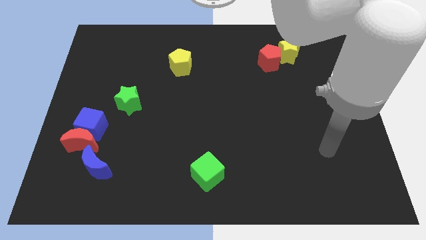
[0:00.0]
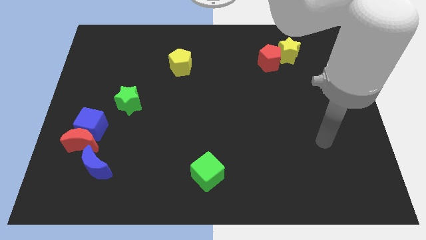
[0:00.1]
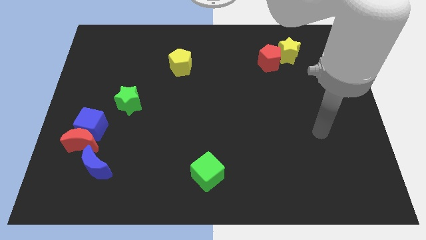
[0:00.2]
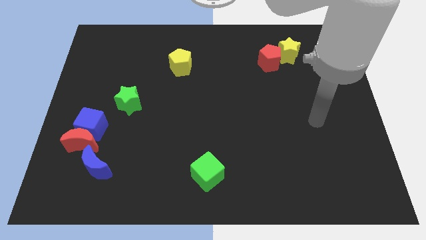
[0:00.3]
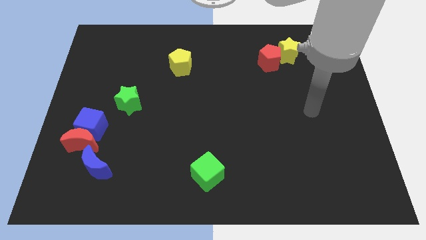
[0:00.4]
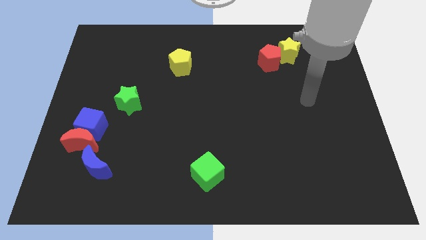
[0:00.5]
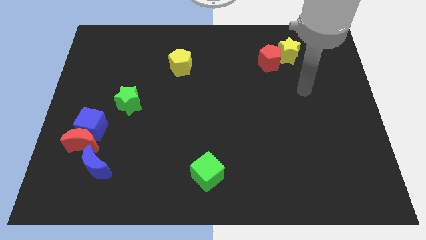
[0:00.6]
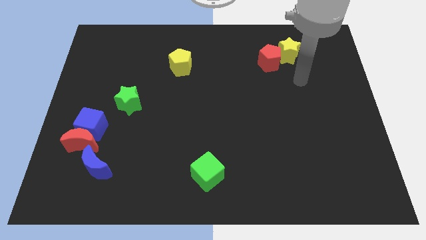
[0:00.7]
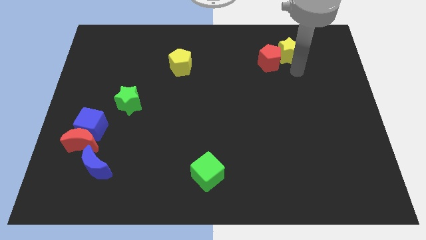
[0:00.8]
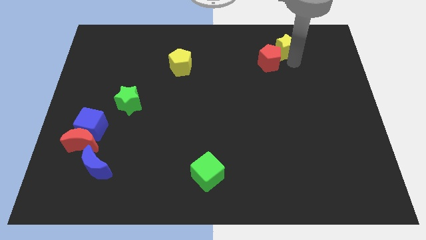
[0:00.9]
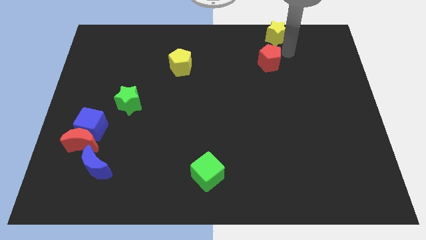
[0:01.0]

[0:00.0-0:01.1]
separate the red pentagon from the yellow star

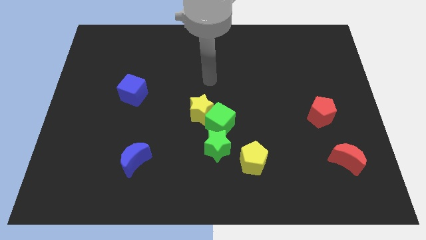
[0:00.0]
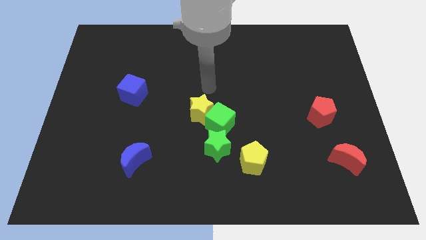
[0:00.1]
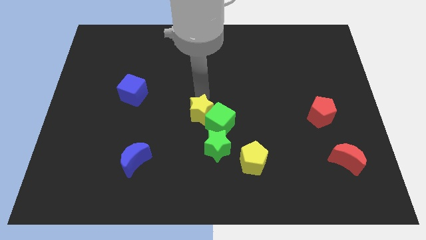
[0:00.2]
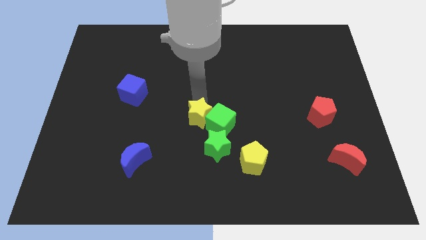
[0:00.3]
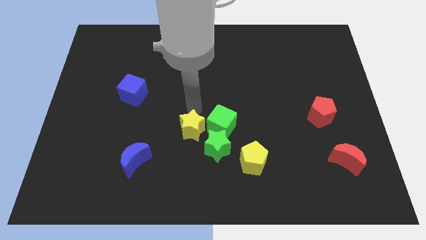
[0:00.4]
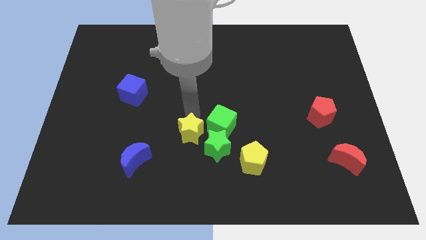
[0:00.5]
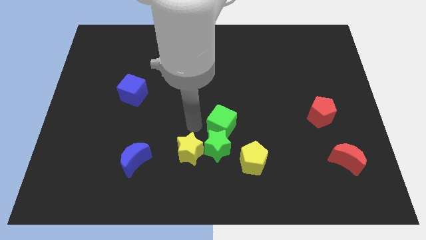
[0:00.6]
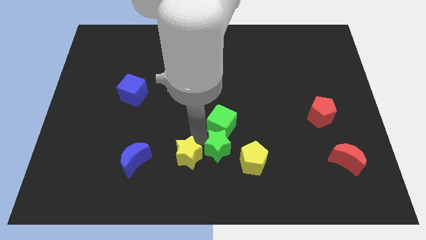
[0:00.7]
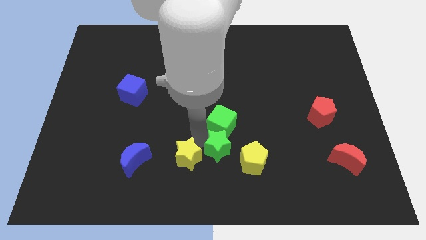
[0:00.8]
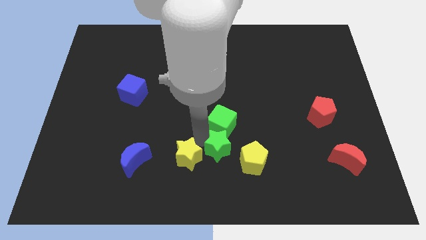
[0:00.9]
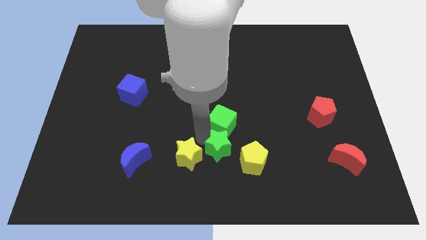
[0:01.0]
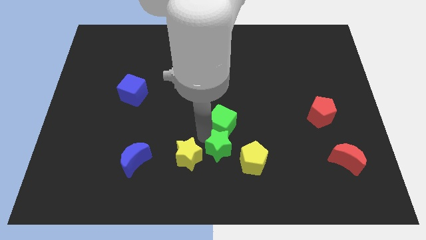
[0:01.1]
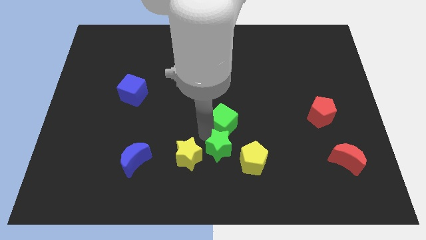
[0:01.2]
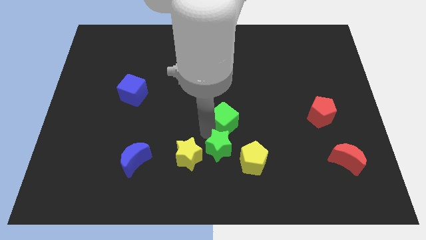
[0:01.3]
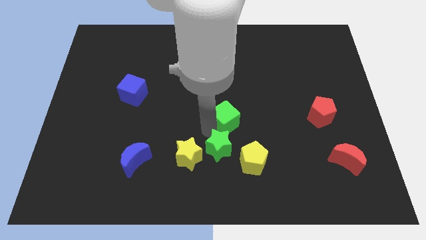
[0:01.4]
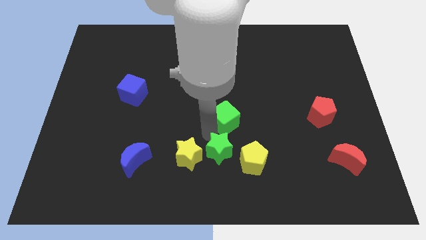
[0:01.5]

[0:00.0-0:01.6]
pull the green cube apart from the yellow star and green star

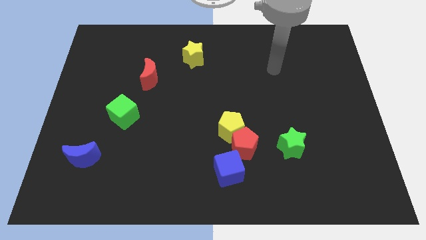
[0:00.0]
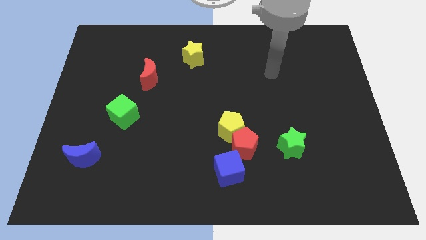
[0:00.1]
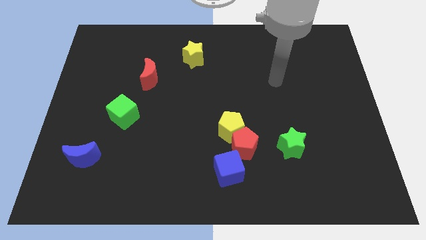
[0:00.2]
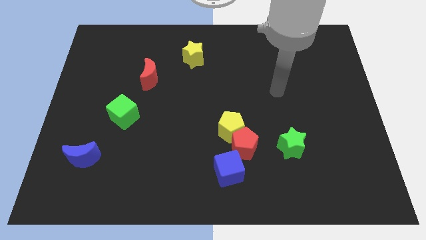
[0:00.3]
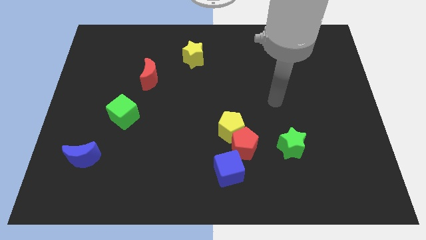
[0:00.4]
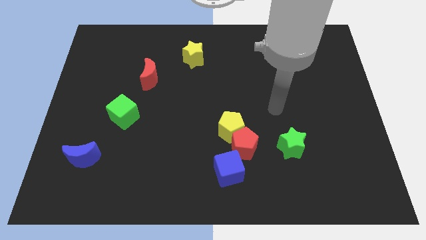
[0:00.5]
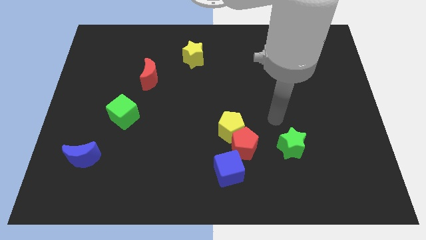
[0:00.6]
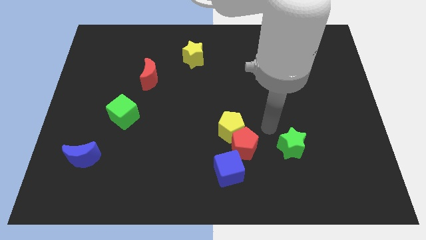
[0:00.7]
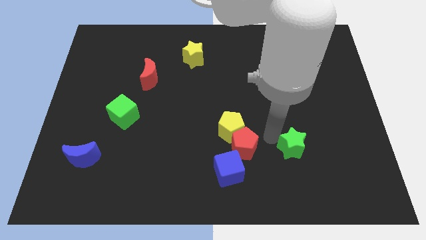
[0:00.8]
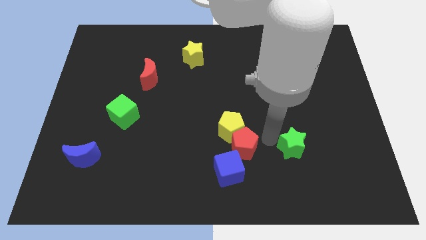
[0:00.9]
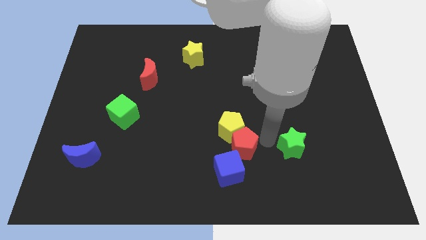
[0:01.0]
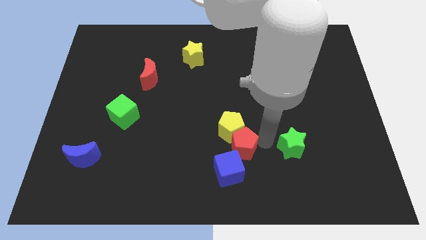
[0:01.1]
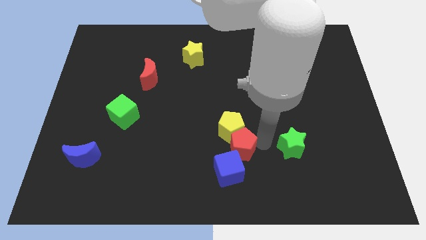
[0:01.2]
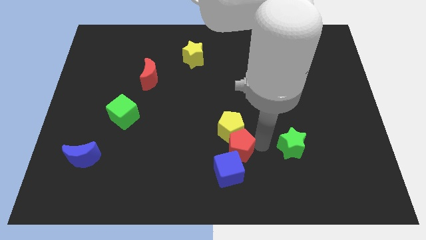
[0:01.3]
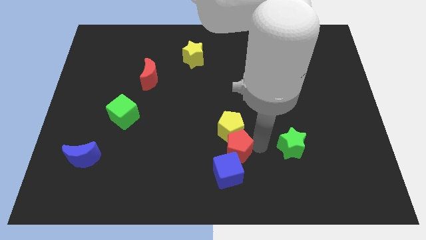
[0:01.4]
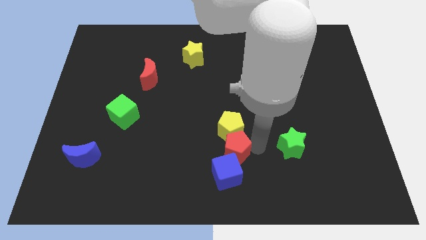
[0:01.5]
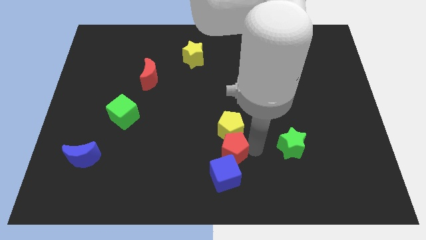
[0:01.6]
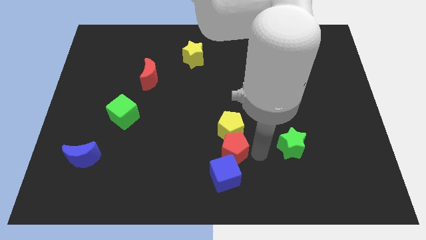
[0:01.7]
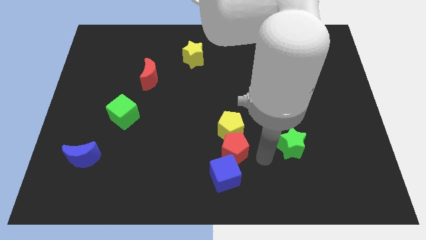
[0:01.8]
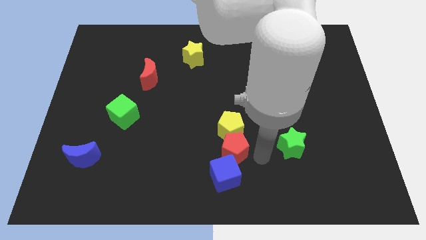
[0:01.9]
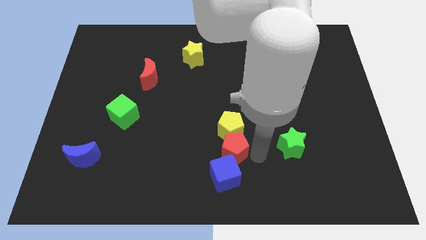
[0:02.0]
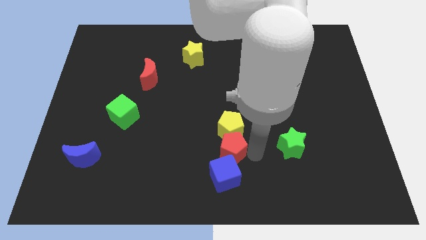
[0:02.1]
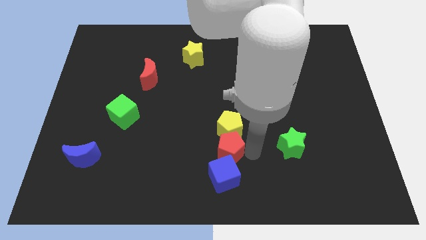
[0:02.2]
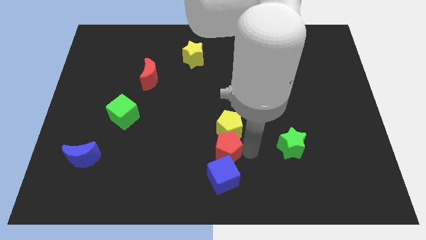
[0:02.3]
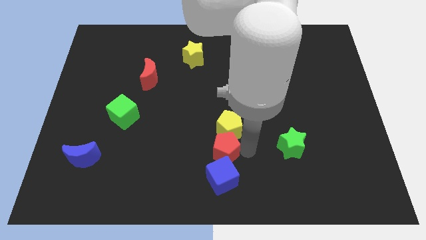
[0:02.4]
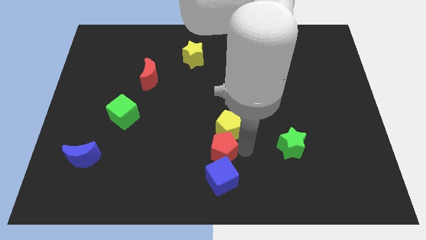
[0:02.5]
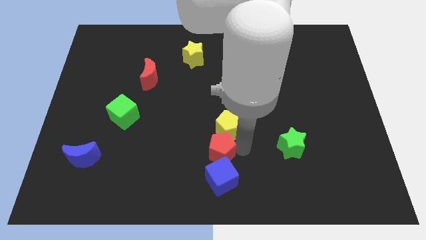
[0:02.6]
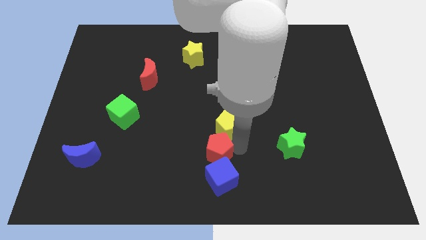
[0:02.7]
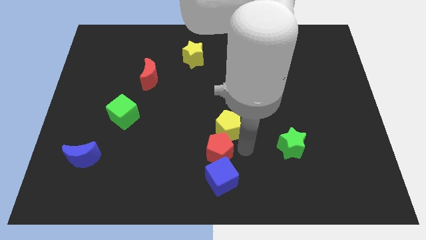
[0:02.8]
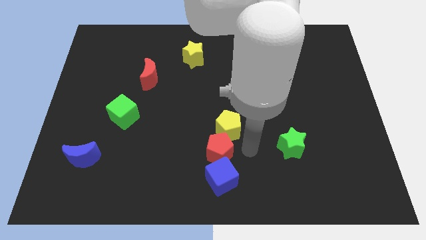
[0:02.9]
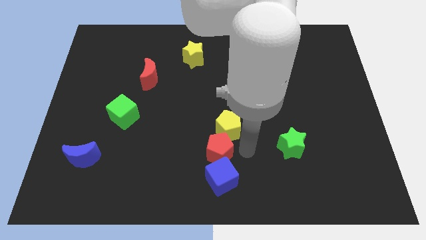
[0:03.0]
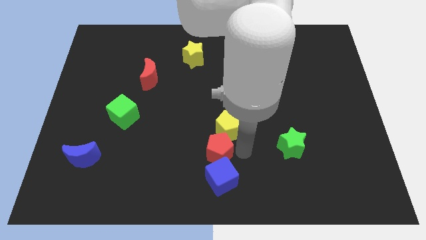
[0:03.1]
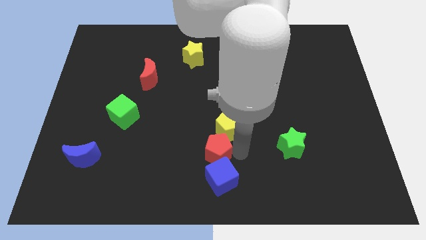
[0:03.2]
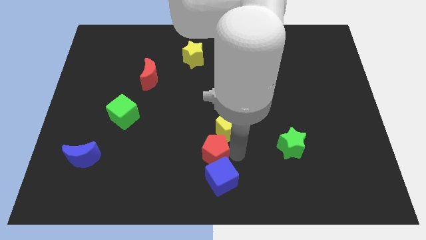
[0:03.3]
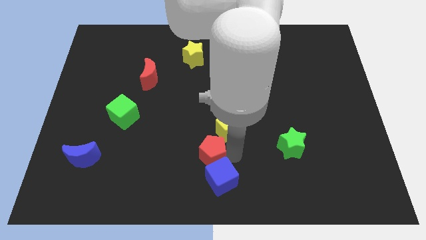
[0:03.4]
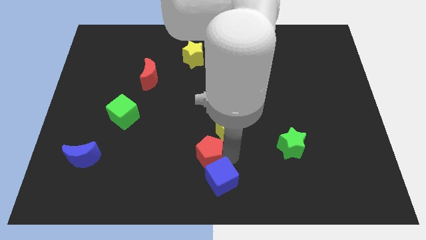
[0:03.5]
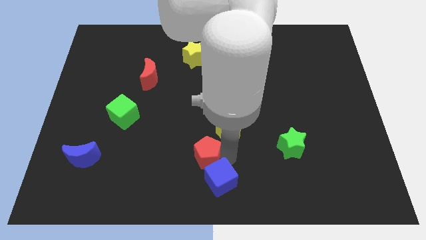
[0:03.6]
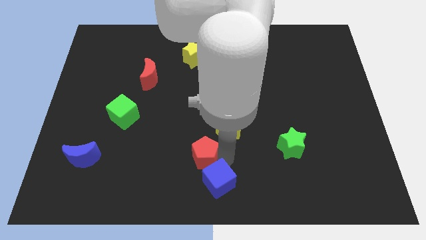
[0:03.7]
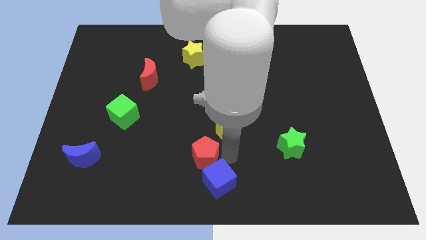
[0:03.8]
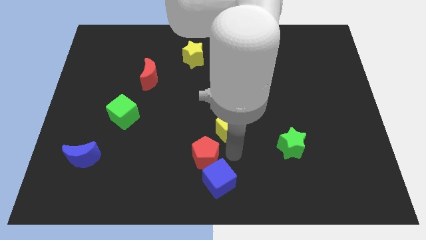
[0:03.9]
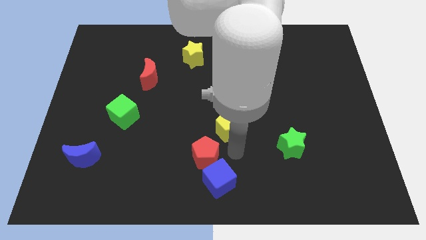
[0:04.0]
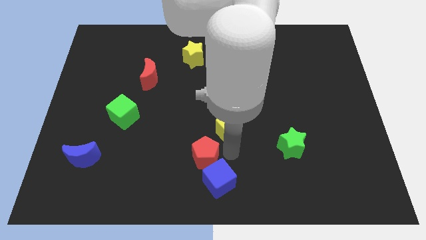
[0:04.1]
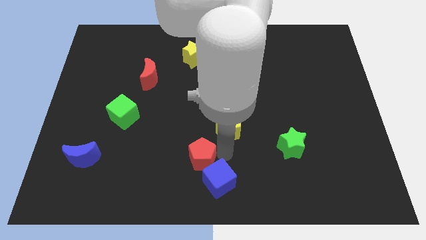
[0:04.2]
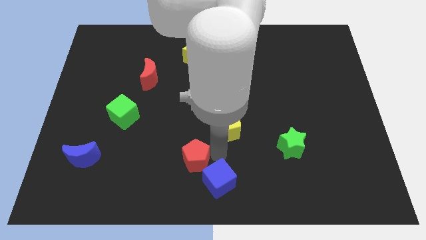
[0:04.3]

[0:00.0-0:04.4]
pull the red pentagon apart from the clump

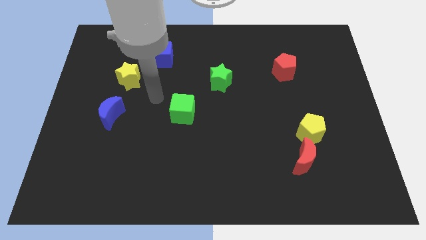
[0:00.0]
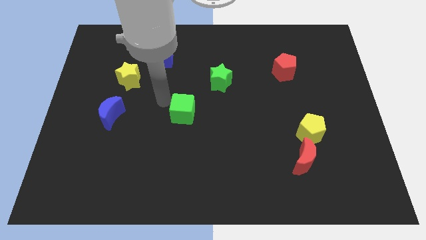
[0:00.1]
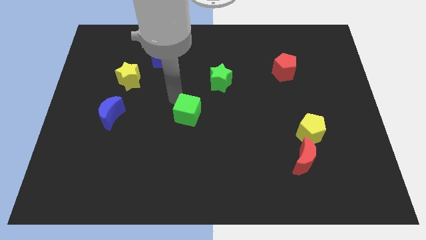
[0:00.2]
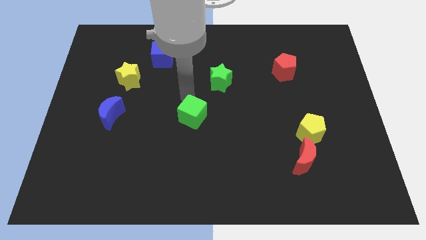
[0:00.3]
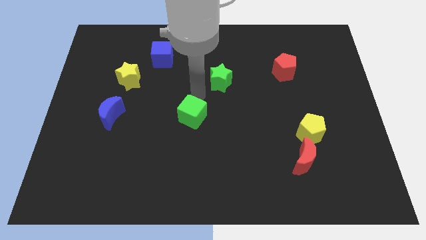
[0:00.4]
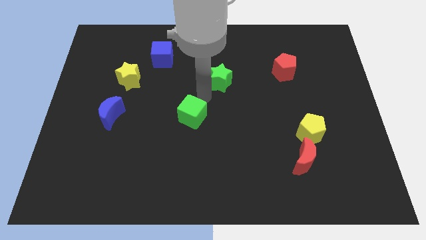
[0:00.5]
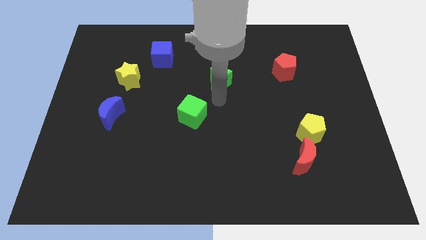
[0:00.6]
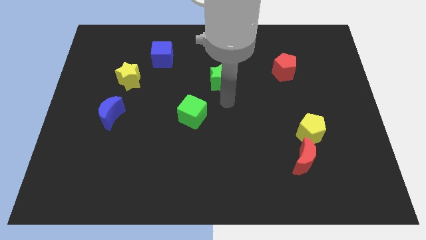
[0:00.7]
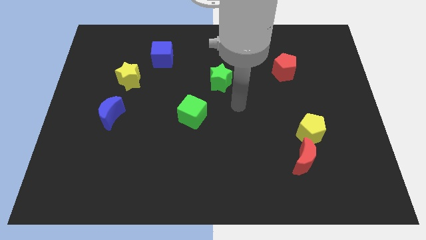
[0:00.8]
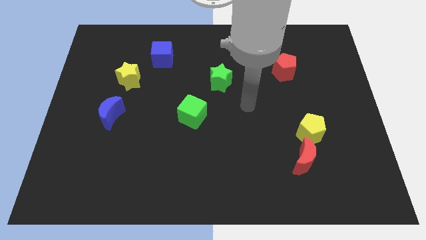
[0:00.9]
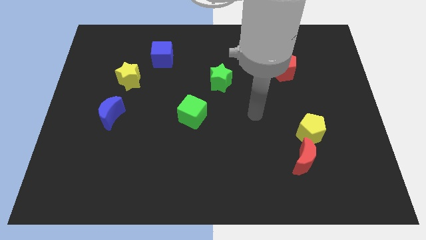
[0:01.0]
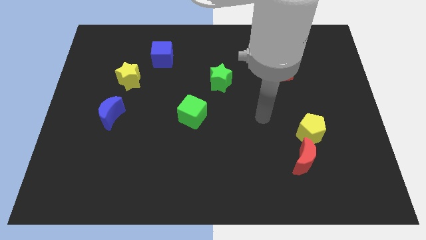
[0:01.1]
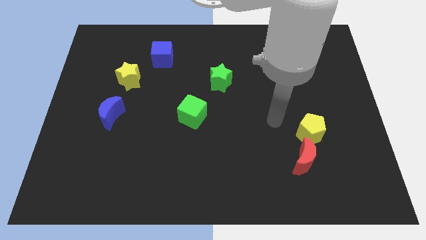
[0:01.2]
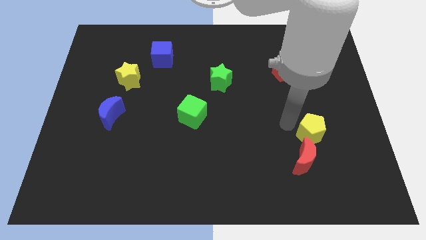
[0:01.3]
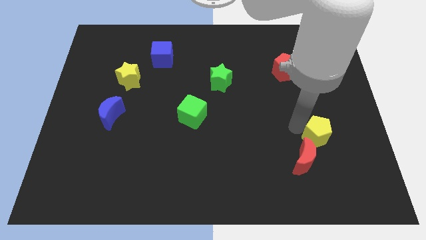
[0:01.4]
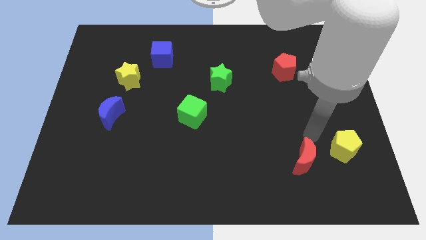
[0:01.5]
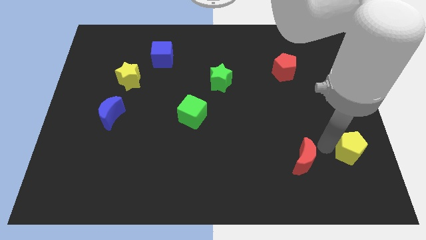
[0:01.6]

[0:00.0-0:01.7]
separate the red moon from the yellow pentagon

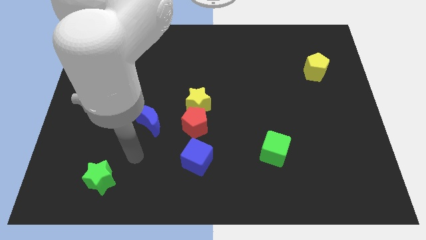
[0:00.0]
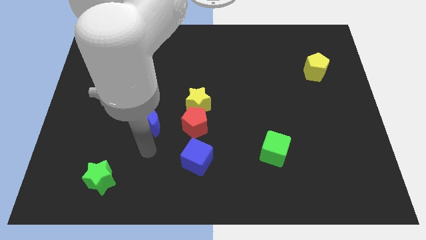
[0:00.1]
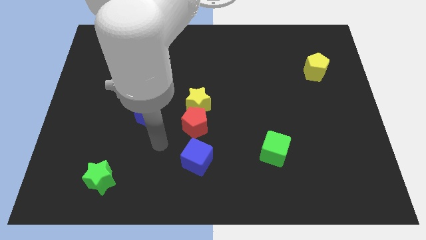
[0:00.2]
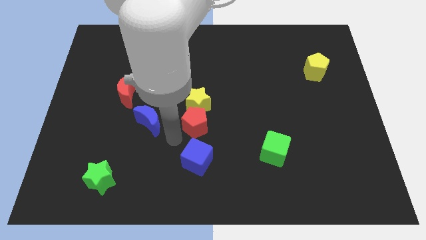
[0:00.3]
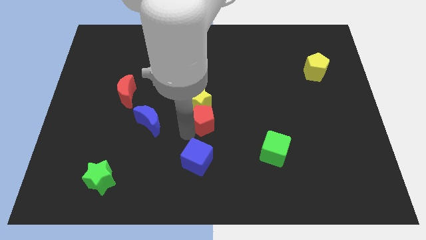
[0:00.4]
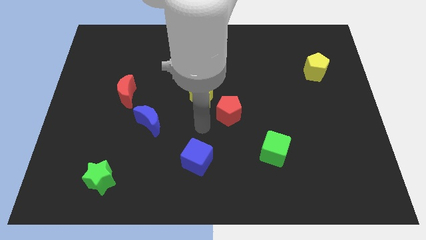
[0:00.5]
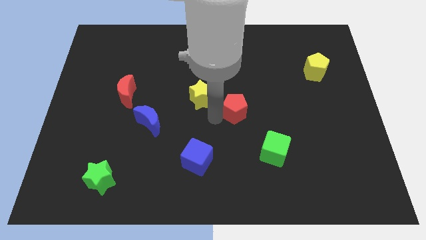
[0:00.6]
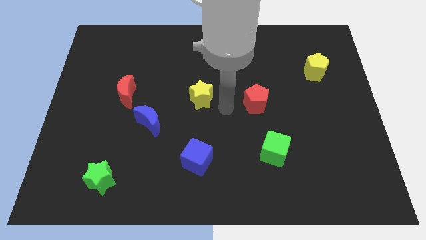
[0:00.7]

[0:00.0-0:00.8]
move the yellow star away from the red pentagon
